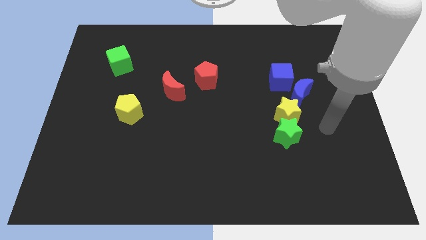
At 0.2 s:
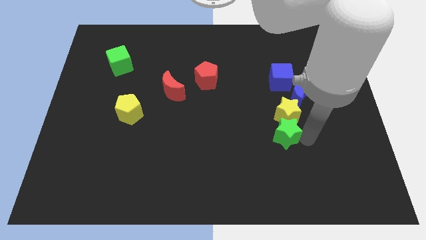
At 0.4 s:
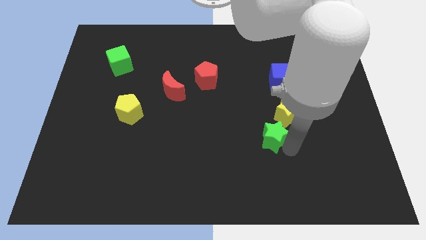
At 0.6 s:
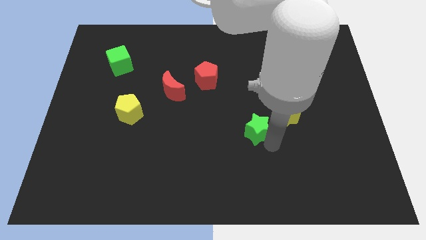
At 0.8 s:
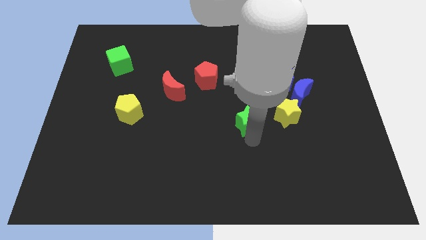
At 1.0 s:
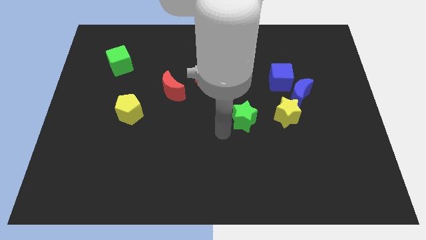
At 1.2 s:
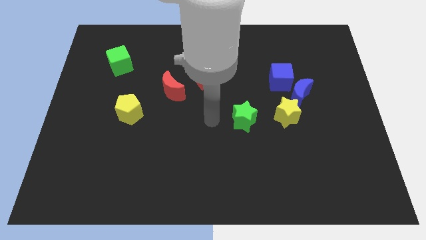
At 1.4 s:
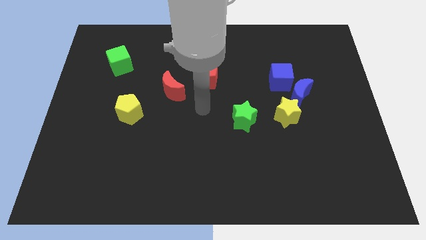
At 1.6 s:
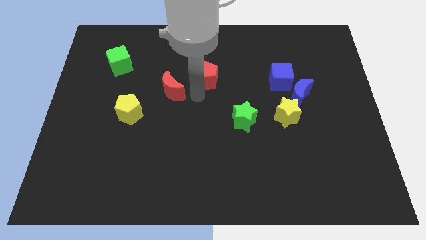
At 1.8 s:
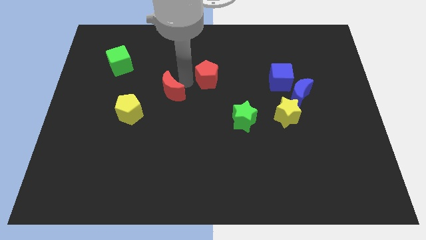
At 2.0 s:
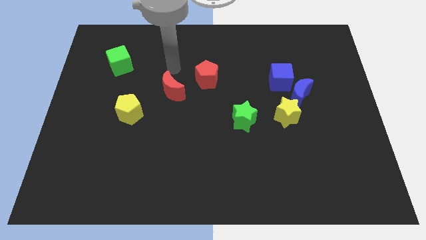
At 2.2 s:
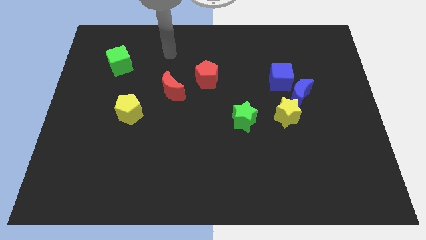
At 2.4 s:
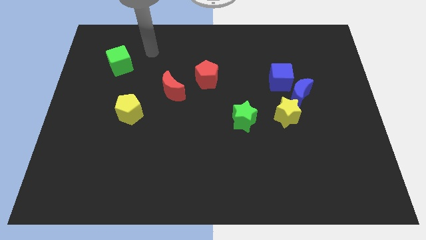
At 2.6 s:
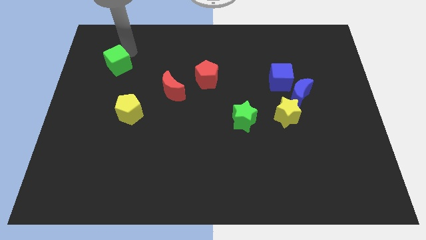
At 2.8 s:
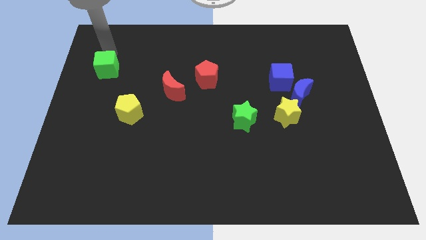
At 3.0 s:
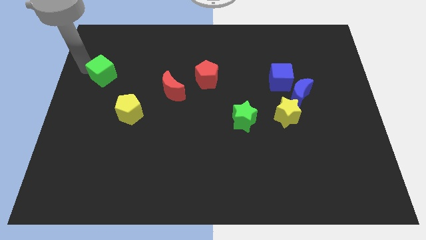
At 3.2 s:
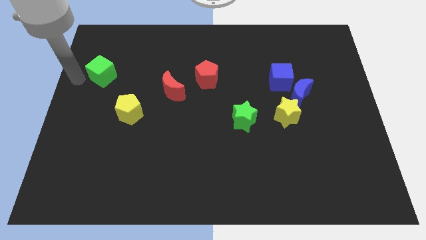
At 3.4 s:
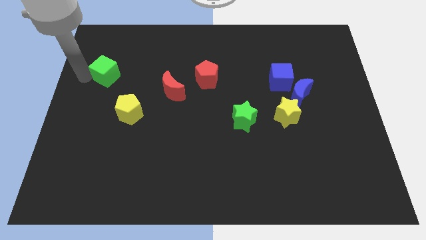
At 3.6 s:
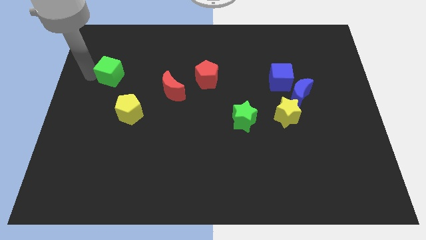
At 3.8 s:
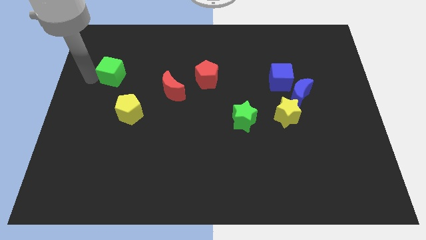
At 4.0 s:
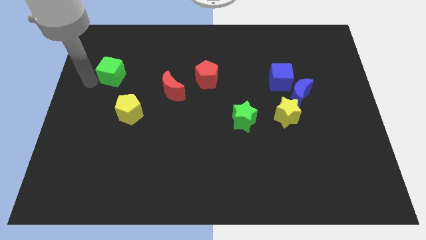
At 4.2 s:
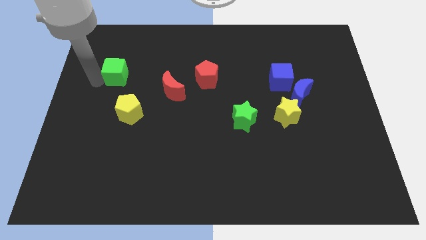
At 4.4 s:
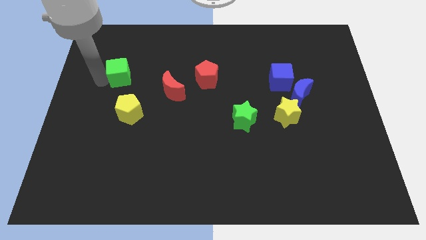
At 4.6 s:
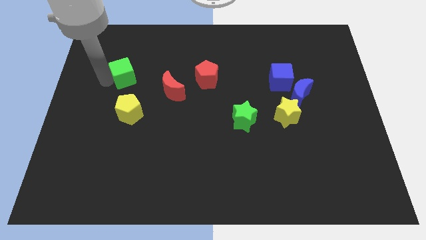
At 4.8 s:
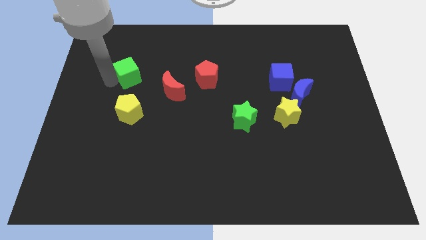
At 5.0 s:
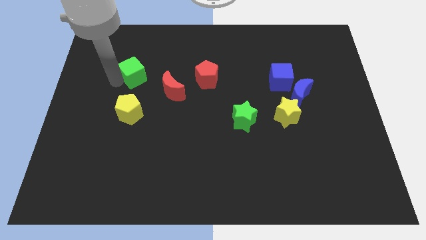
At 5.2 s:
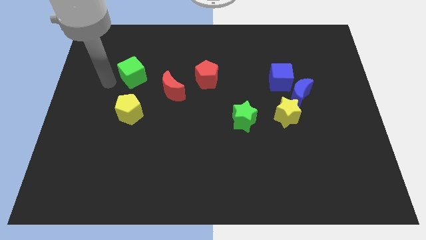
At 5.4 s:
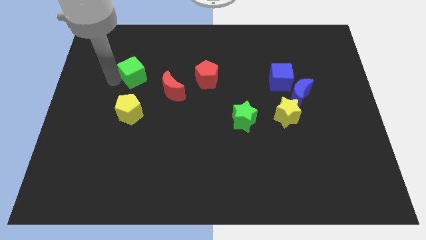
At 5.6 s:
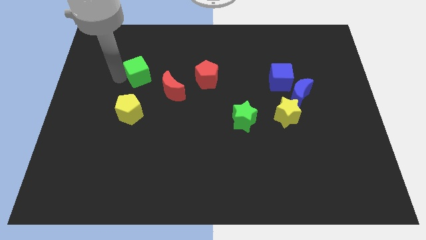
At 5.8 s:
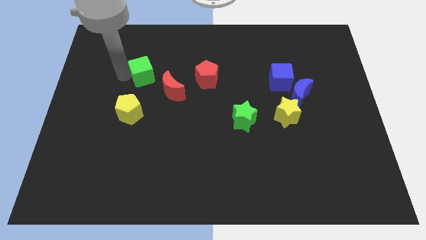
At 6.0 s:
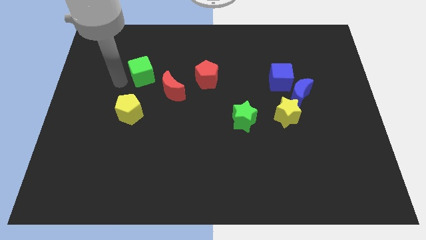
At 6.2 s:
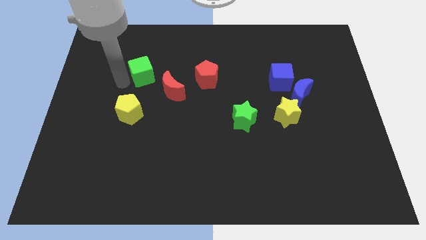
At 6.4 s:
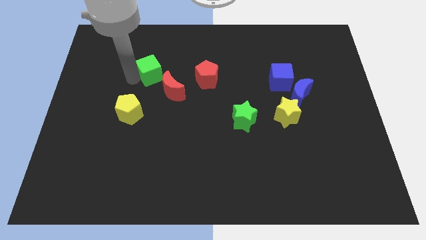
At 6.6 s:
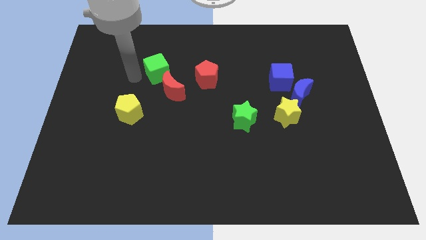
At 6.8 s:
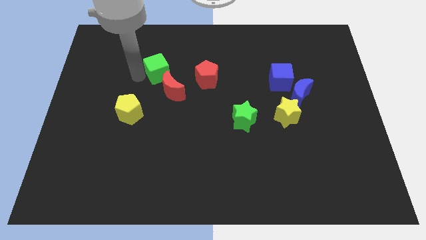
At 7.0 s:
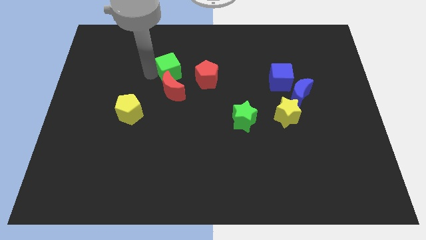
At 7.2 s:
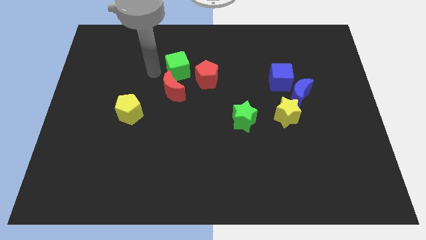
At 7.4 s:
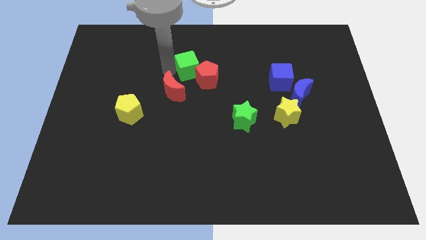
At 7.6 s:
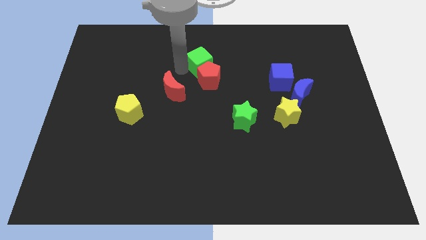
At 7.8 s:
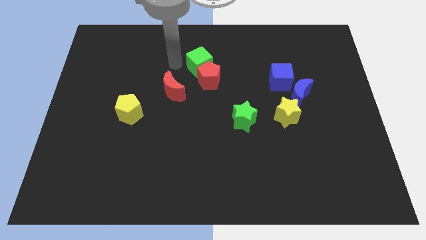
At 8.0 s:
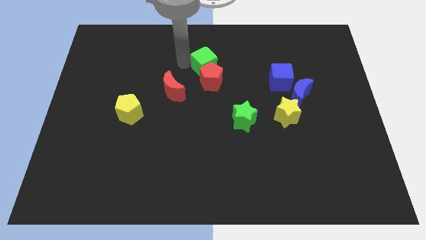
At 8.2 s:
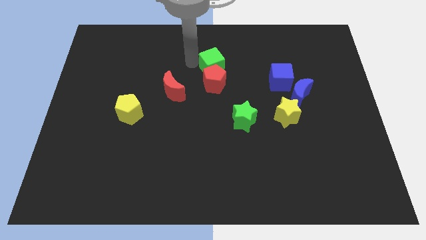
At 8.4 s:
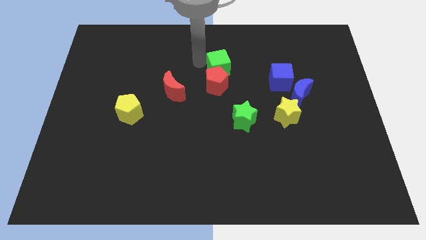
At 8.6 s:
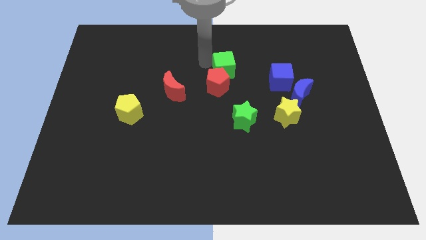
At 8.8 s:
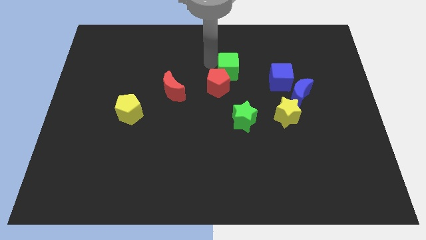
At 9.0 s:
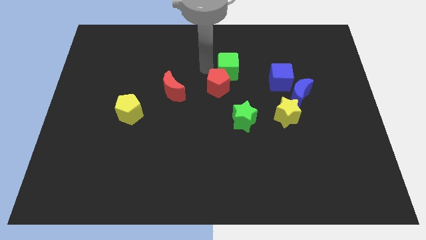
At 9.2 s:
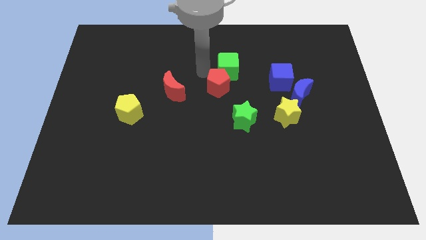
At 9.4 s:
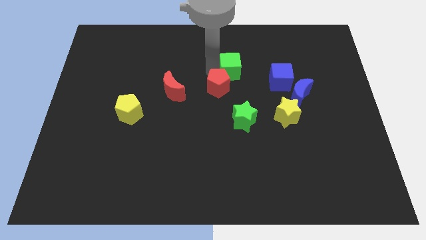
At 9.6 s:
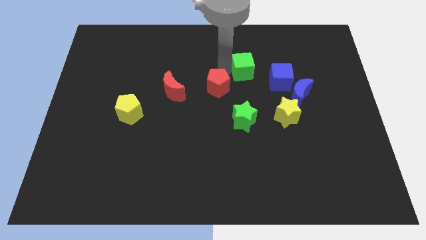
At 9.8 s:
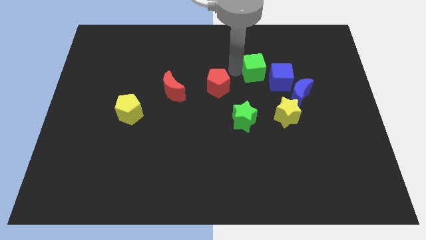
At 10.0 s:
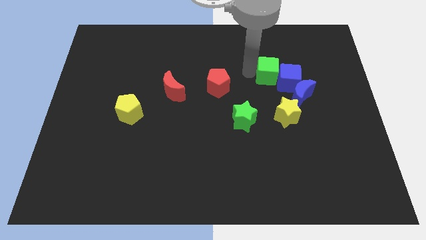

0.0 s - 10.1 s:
slide the green cube to the top of the yellow star

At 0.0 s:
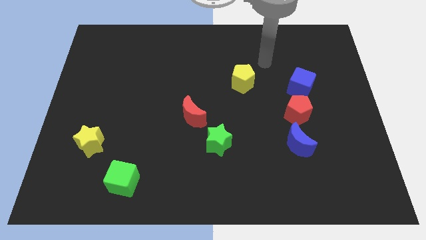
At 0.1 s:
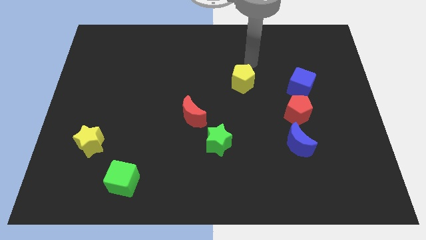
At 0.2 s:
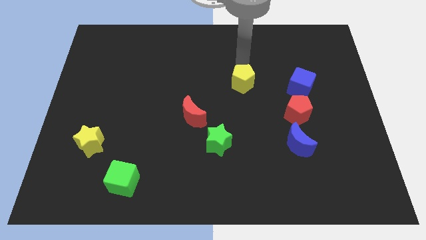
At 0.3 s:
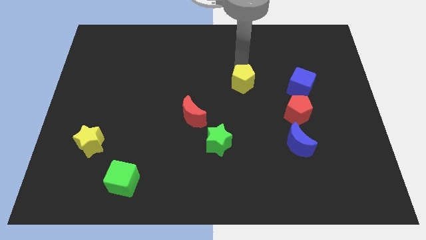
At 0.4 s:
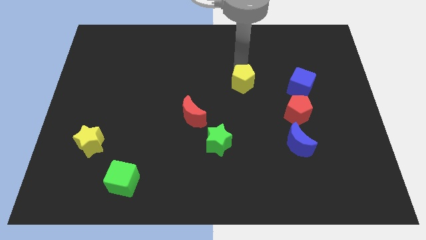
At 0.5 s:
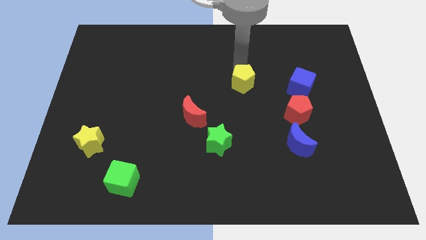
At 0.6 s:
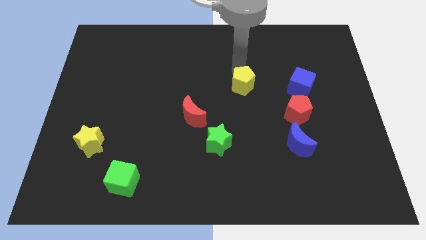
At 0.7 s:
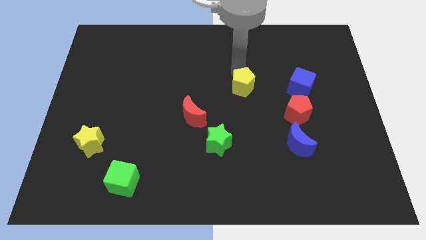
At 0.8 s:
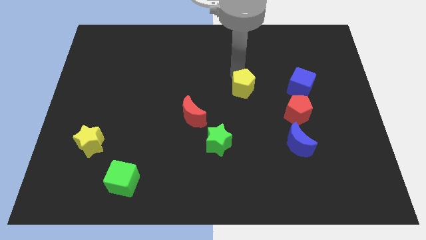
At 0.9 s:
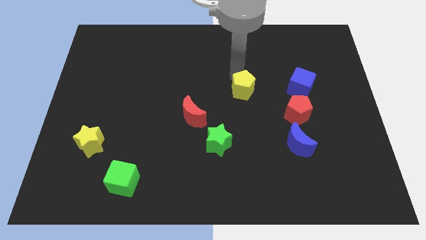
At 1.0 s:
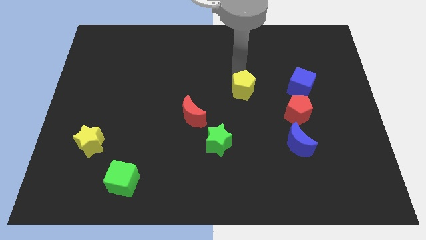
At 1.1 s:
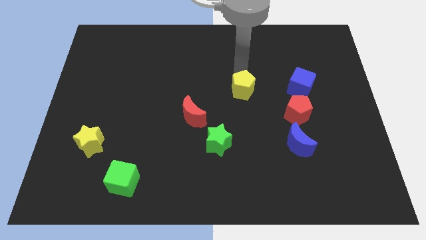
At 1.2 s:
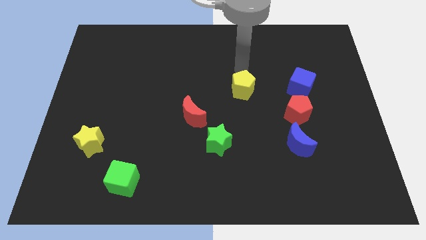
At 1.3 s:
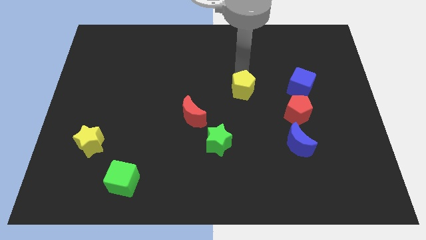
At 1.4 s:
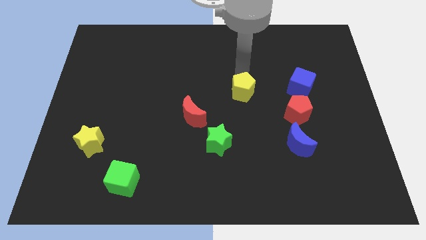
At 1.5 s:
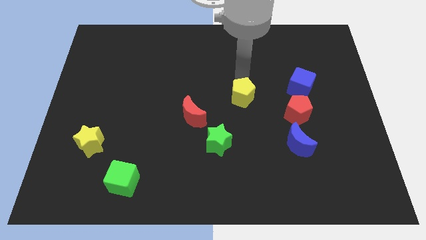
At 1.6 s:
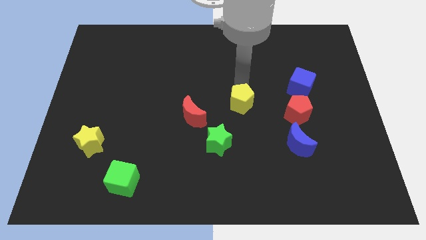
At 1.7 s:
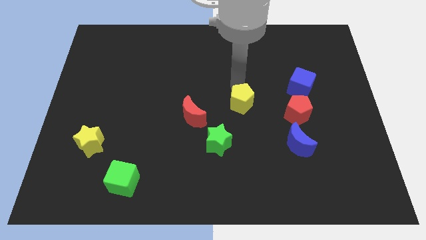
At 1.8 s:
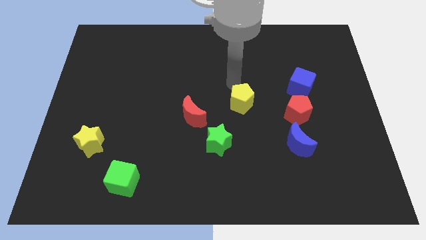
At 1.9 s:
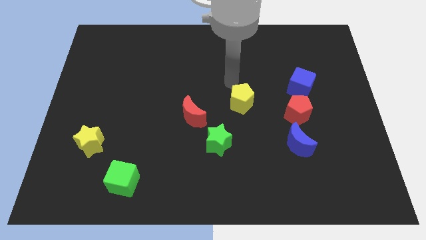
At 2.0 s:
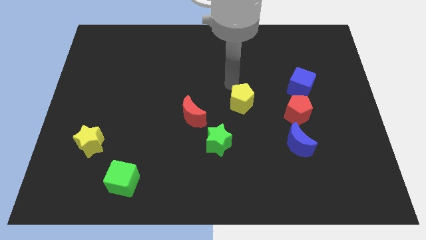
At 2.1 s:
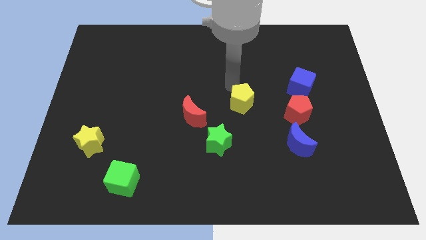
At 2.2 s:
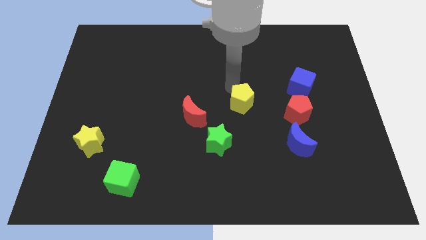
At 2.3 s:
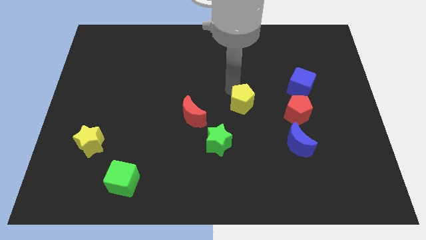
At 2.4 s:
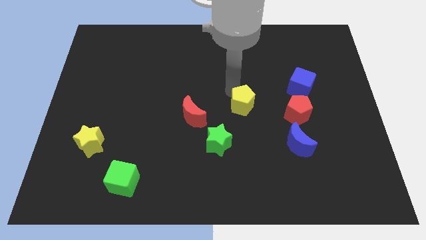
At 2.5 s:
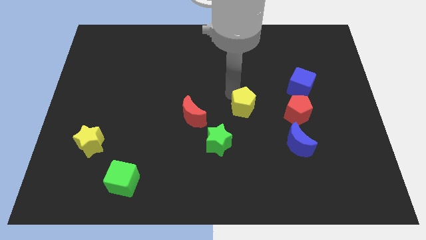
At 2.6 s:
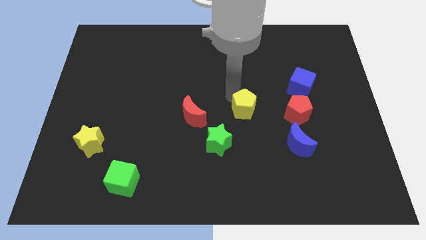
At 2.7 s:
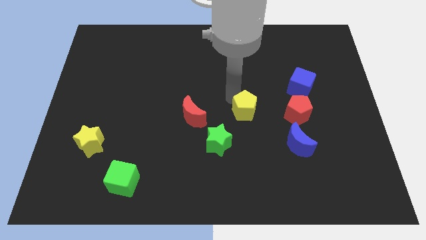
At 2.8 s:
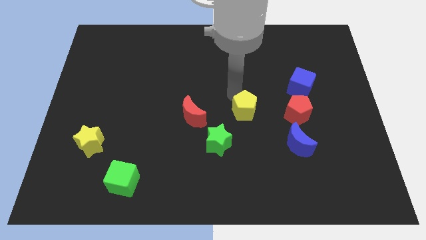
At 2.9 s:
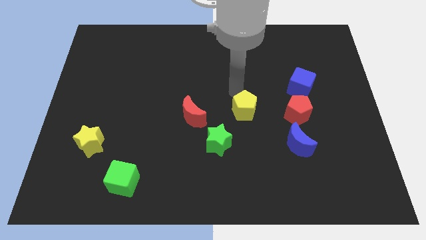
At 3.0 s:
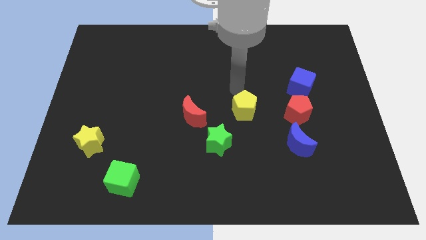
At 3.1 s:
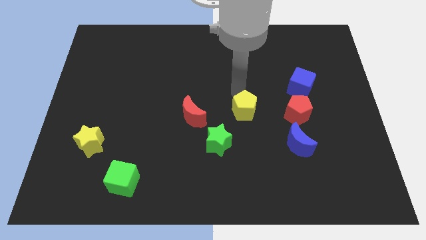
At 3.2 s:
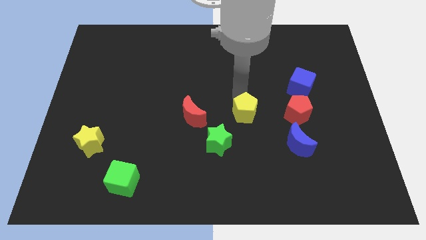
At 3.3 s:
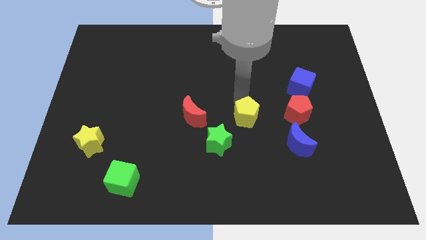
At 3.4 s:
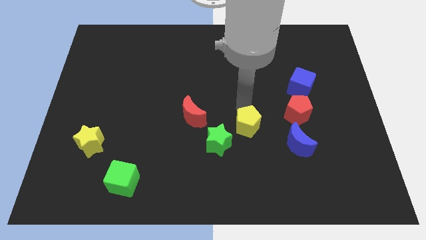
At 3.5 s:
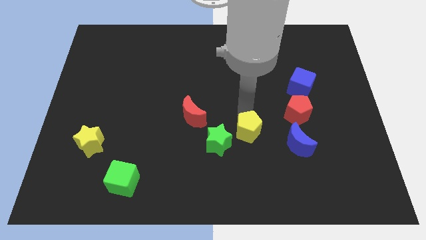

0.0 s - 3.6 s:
move the yellow pentagon to the left side of the blue moon
